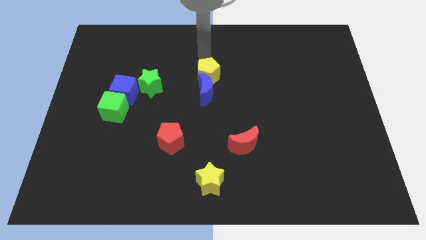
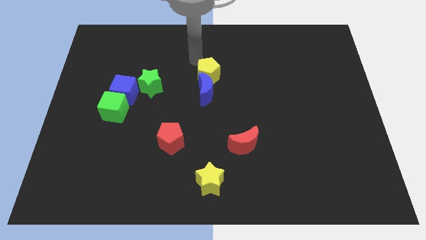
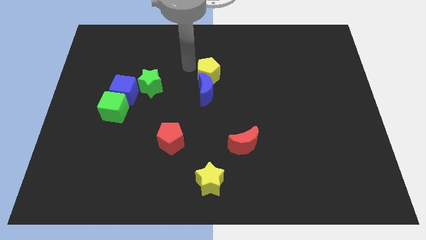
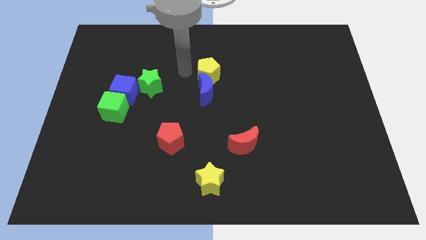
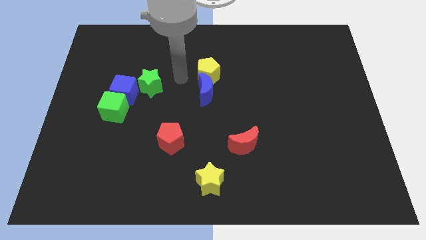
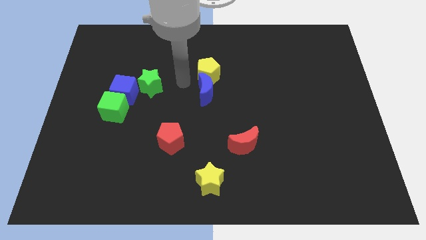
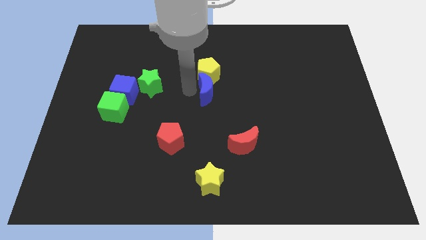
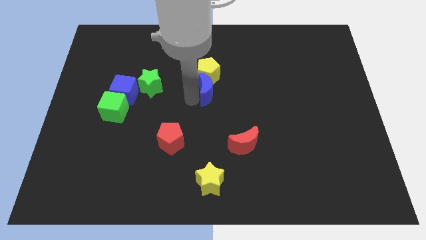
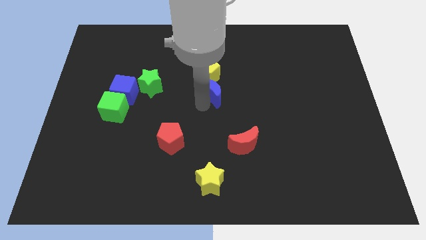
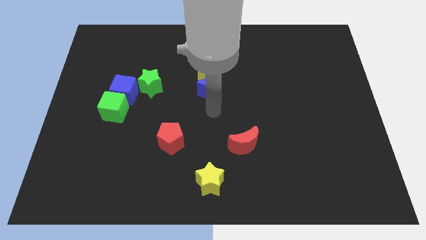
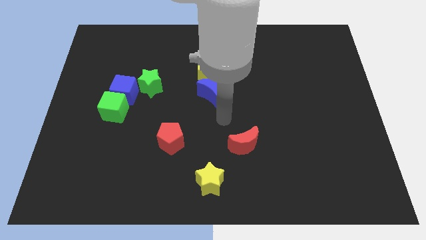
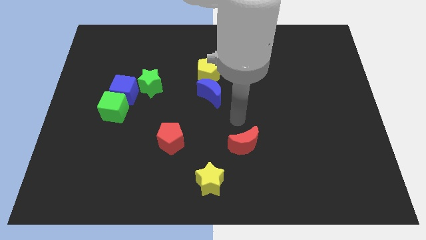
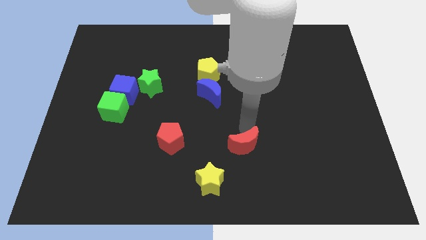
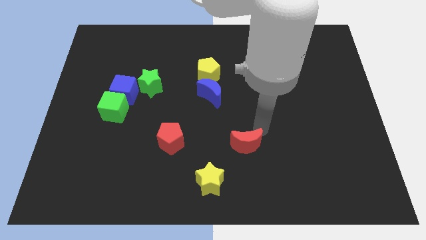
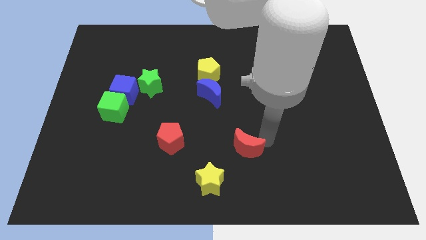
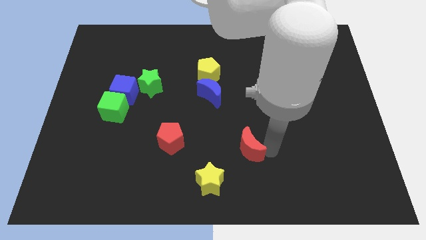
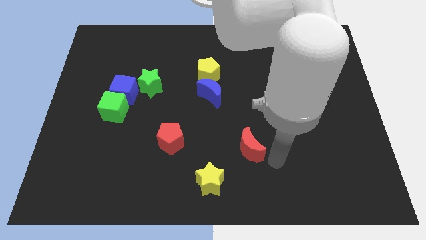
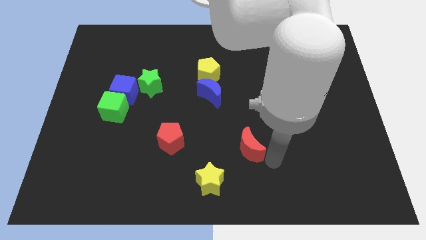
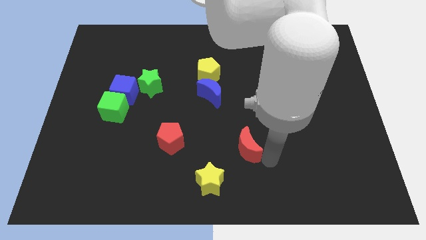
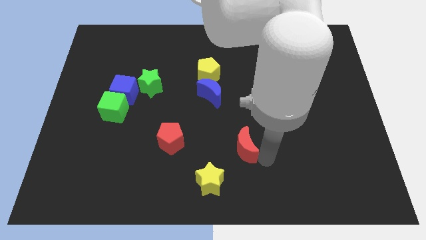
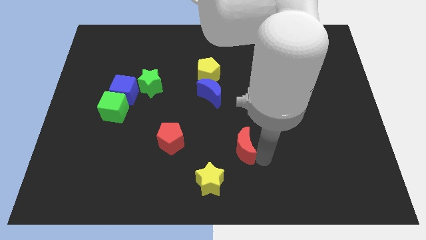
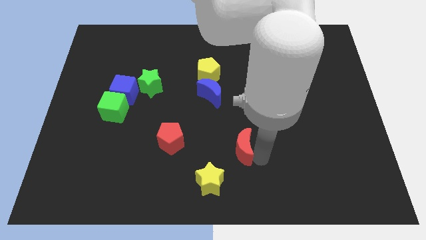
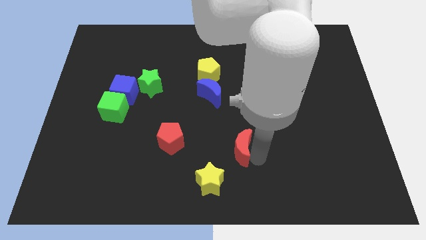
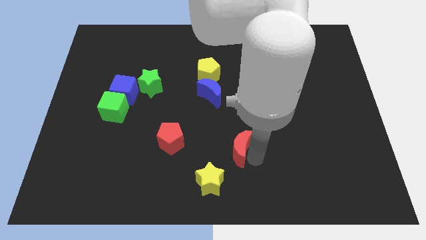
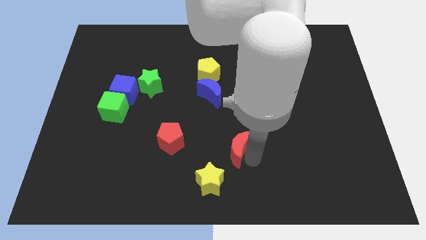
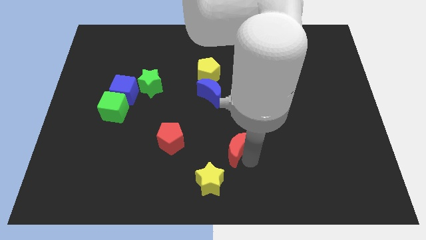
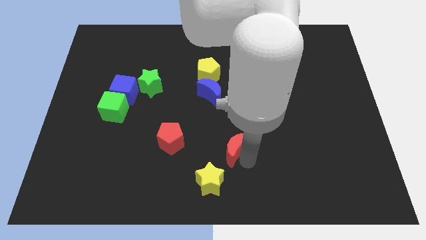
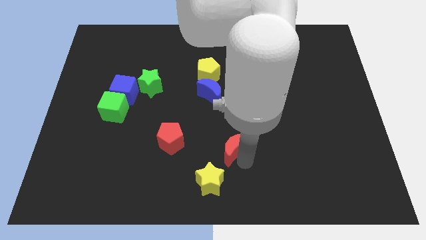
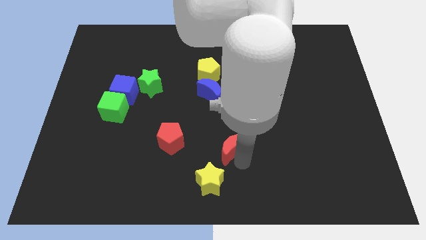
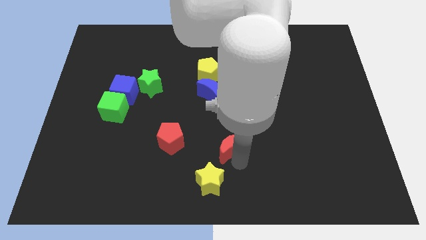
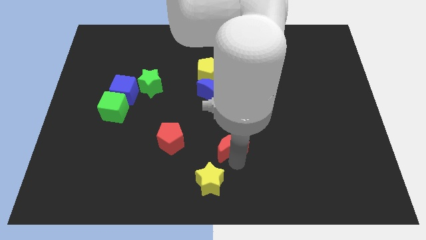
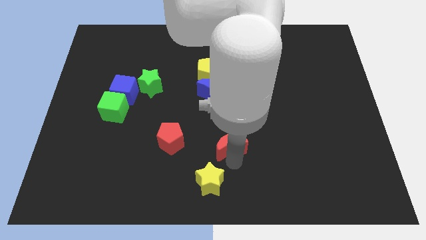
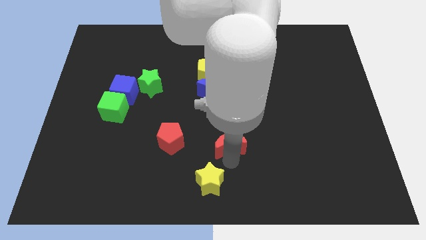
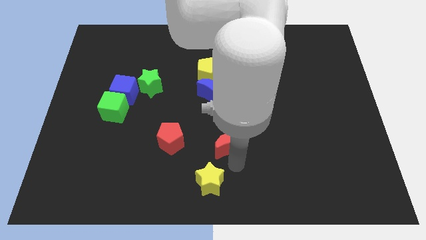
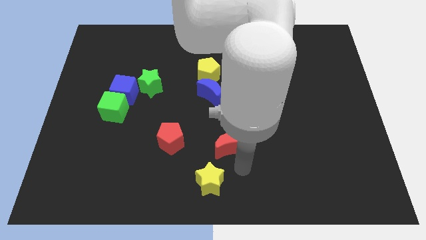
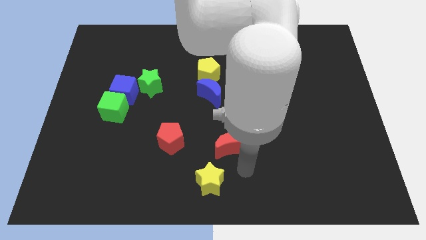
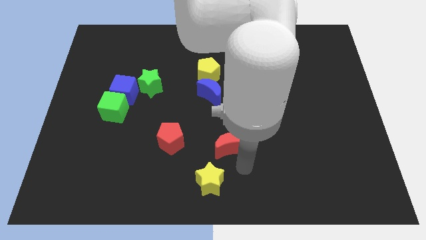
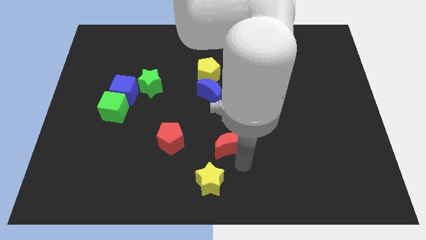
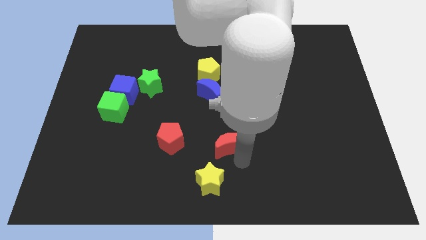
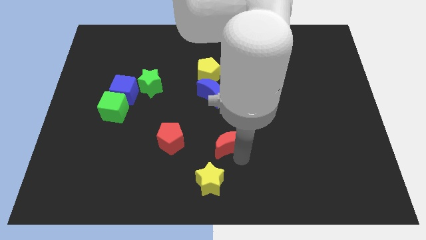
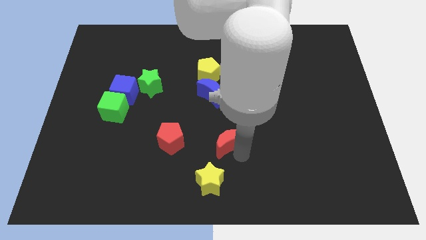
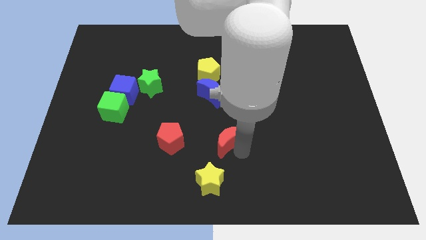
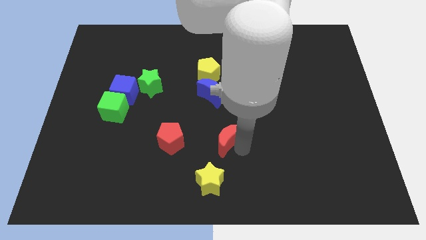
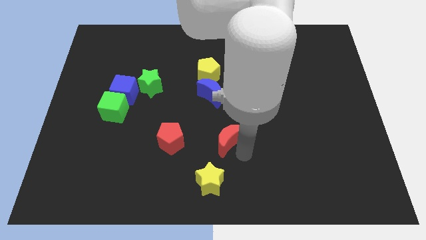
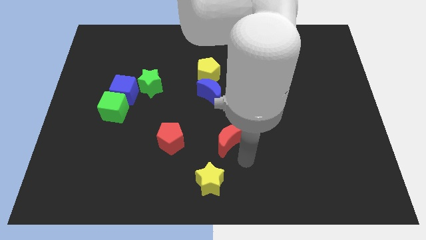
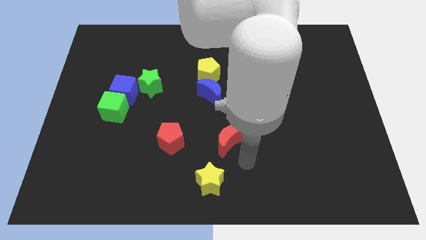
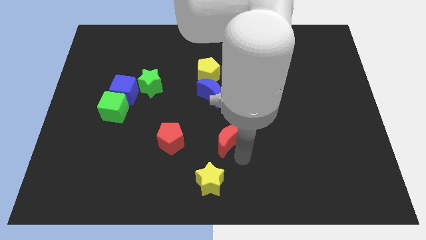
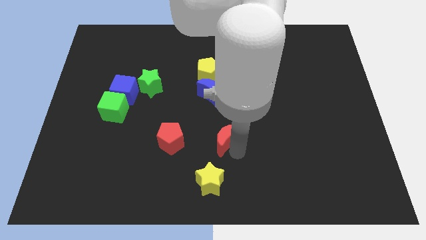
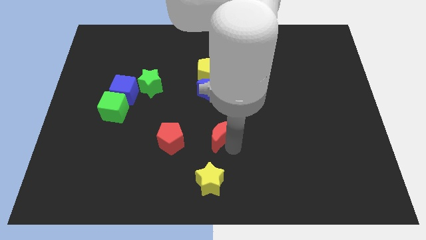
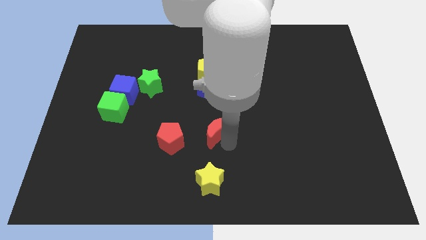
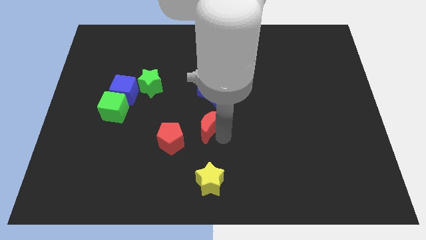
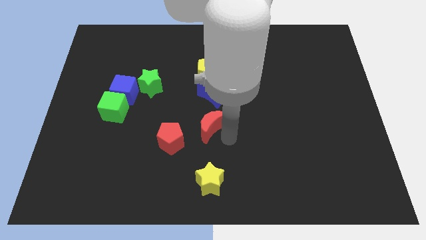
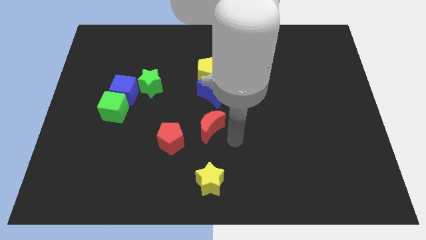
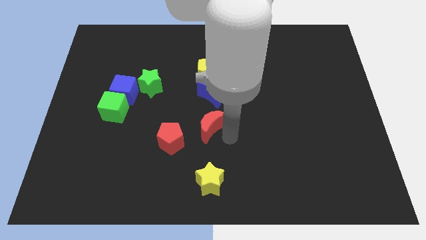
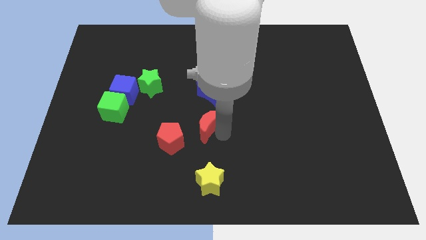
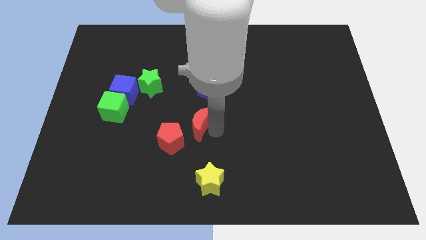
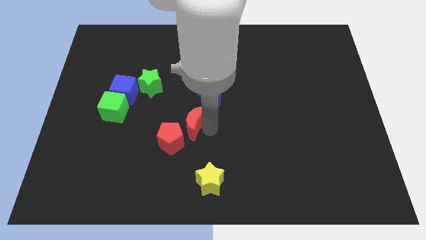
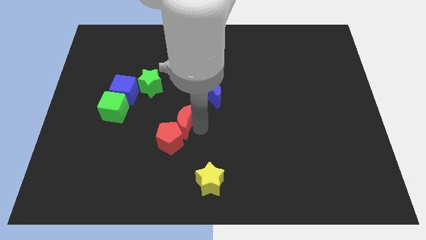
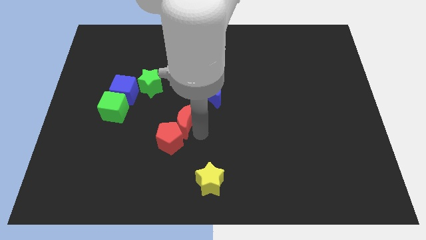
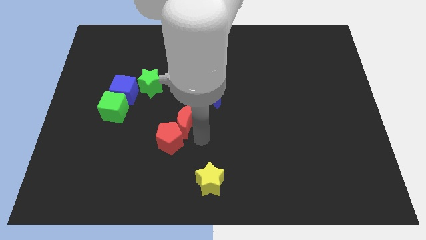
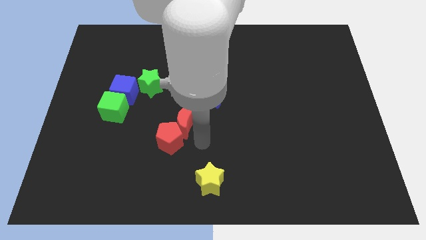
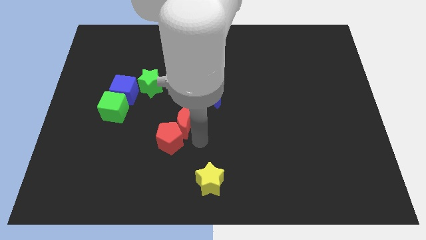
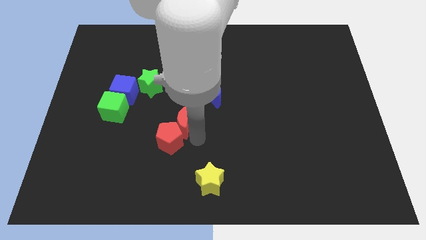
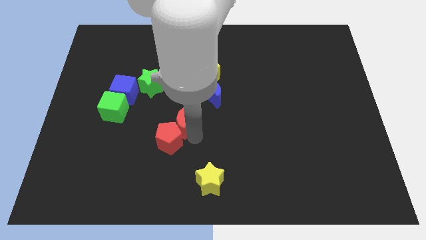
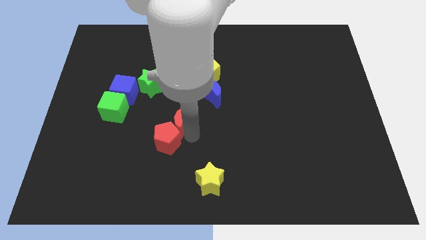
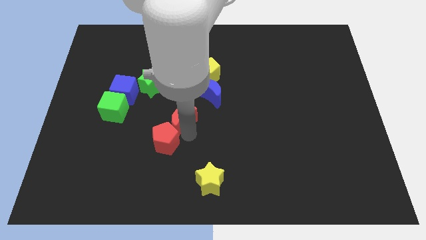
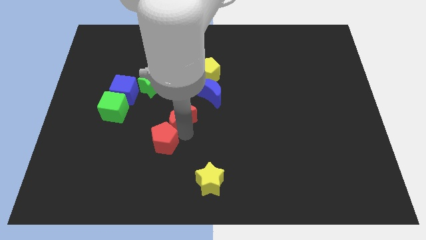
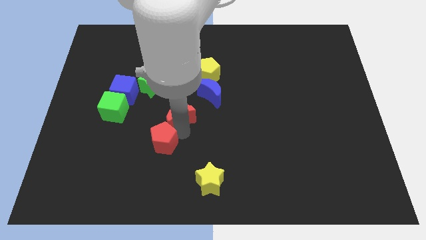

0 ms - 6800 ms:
move the red moon diagonally down and to the right of the green star
